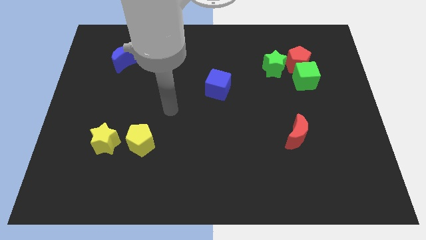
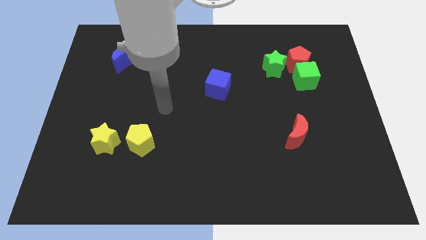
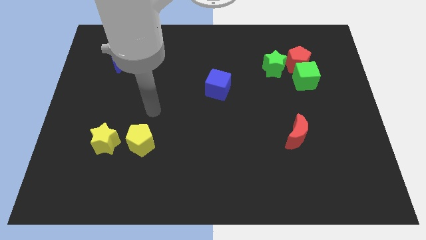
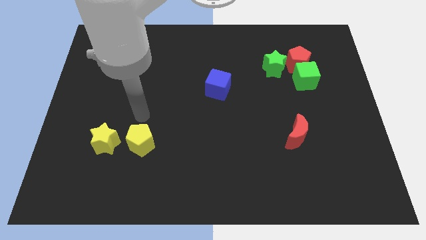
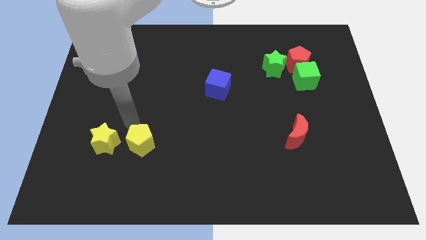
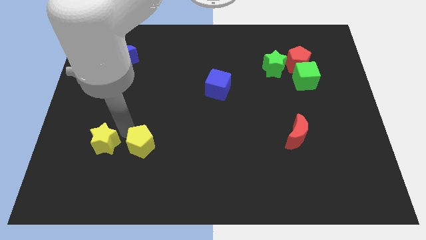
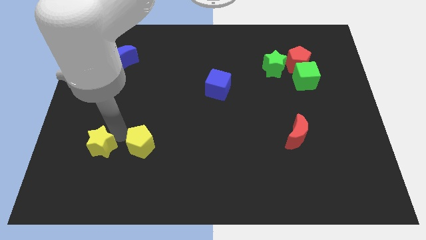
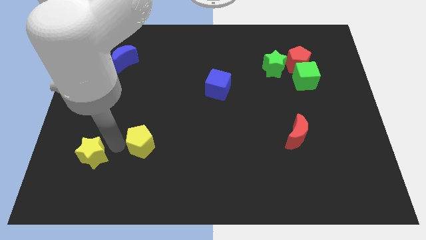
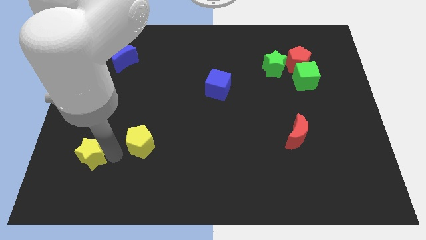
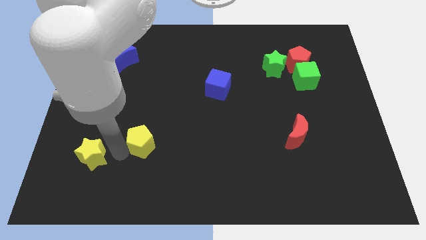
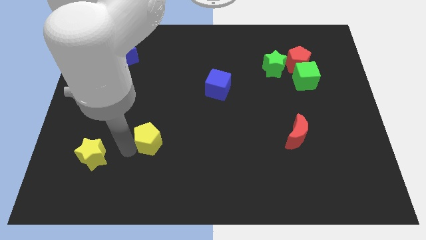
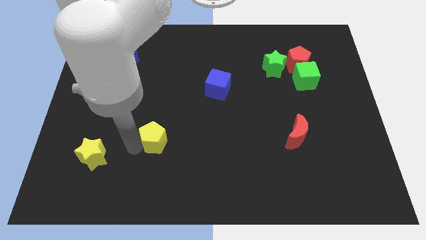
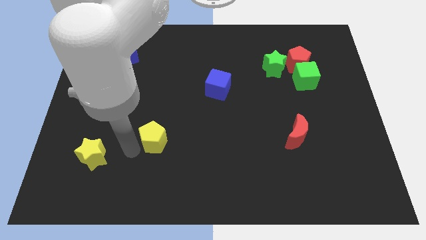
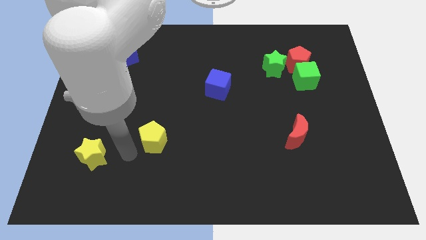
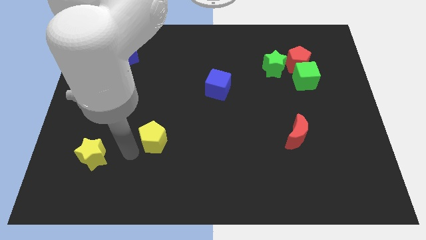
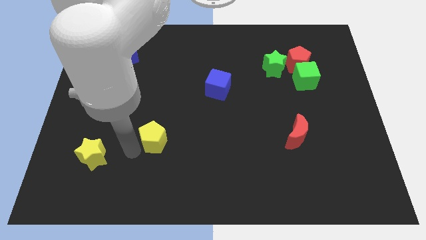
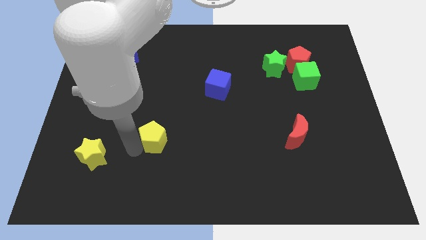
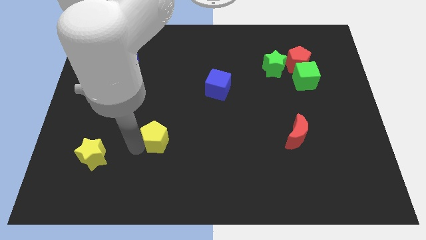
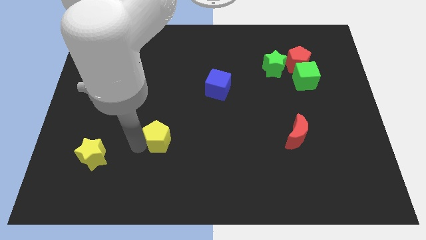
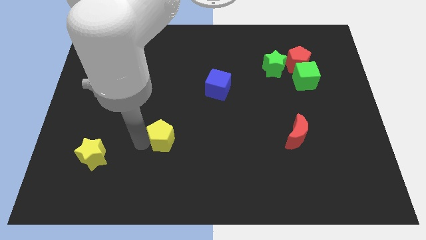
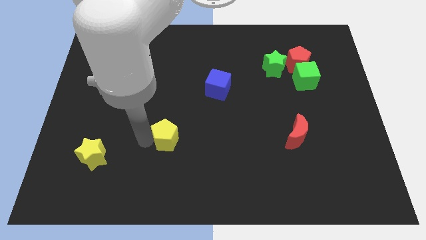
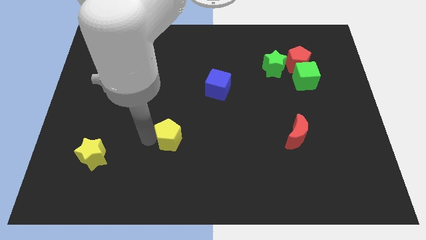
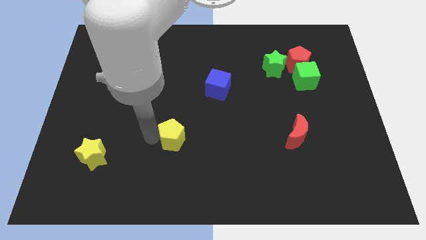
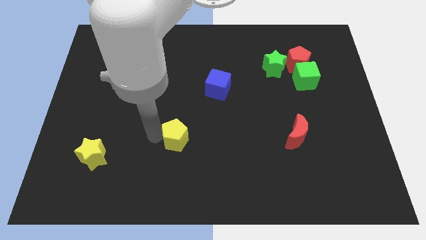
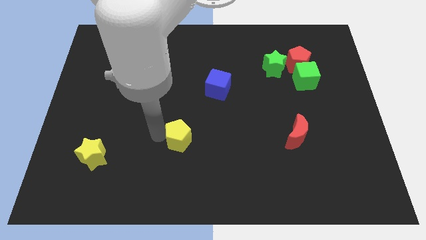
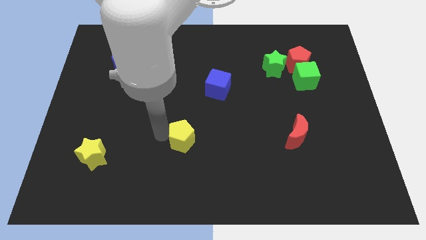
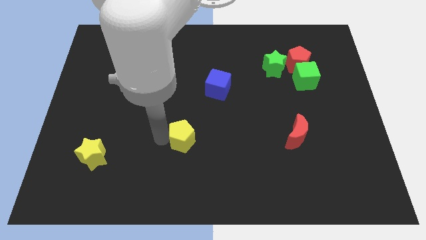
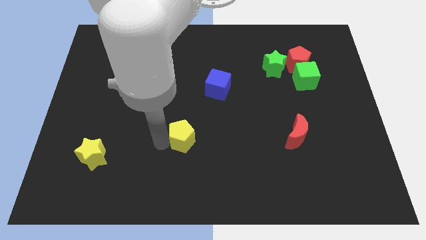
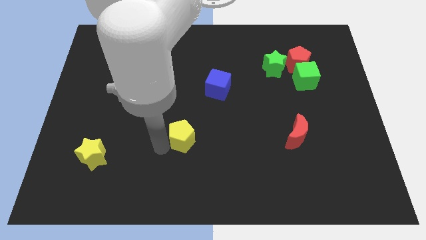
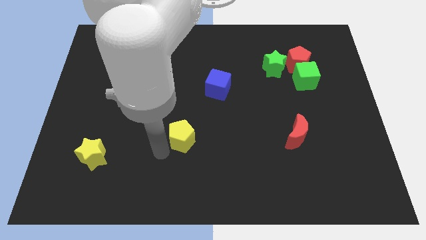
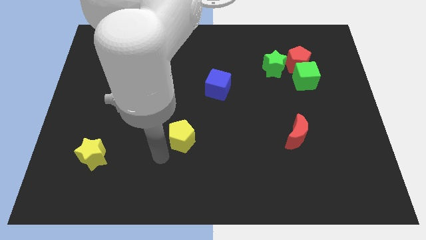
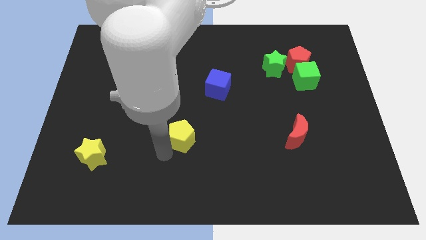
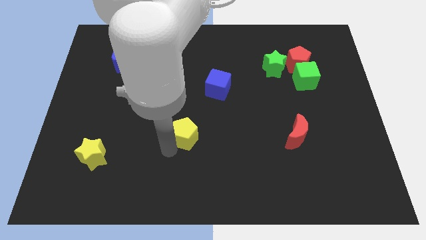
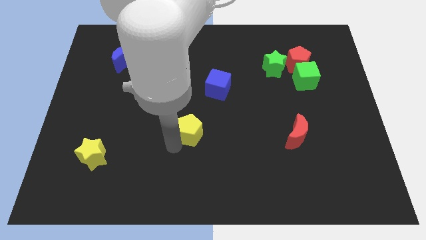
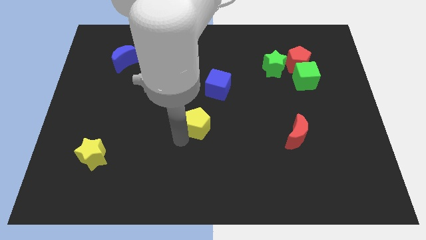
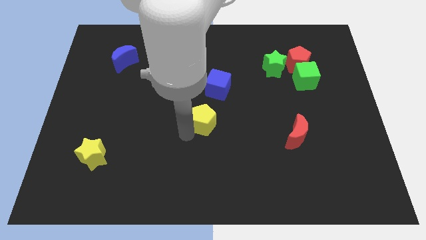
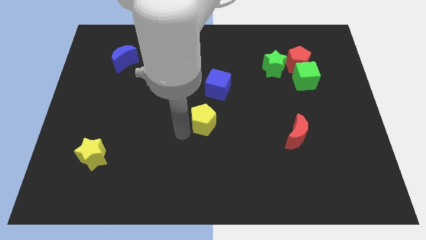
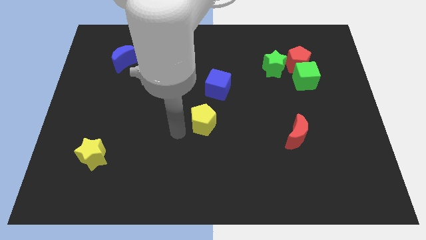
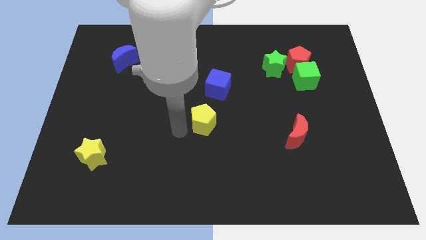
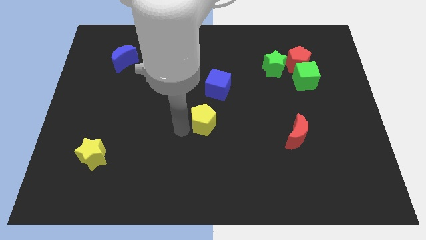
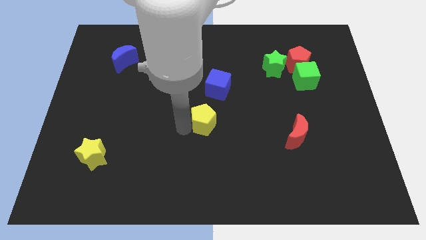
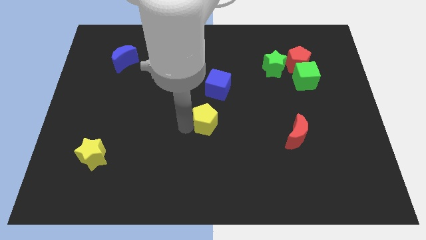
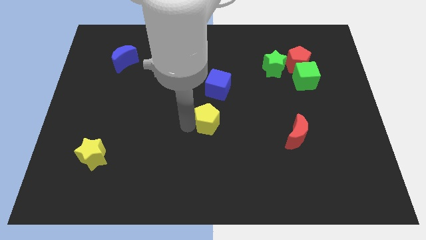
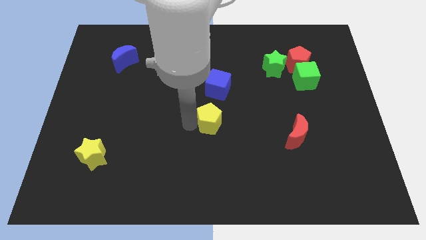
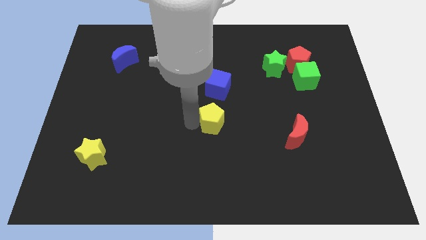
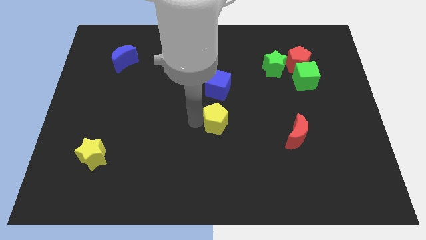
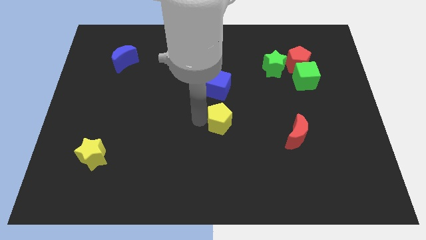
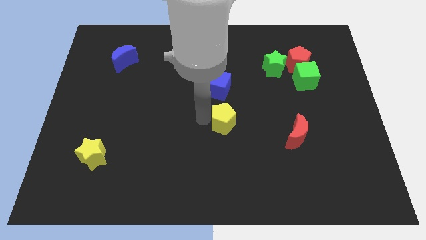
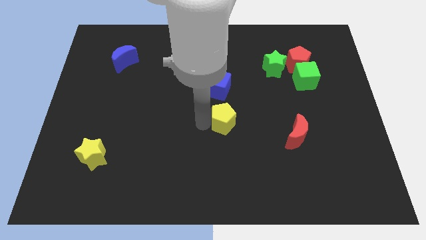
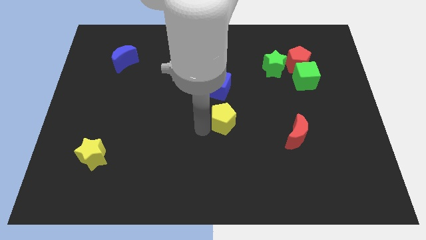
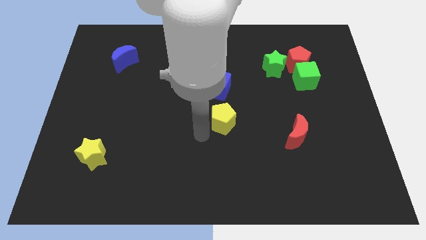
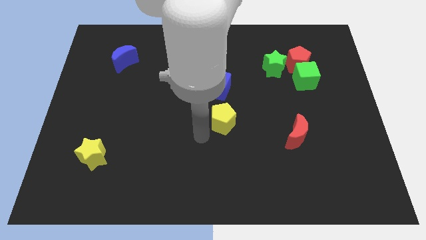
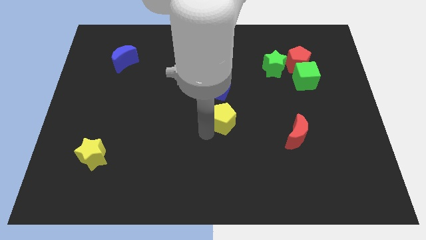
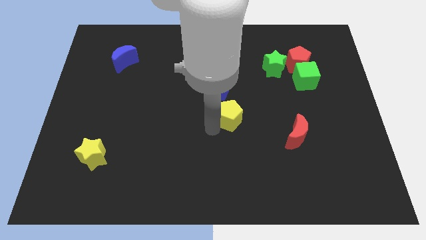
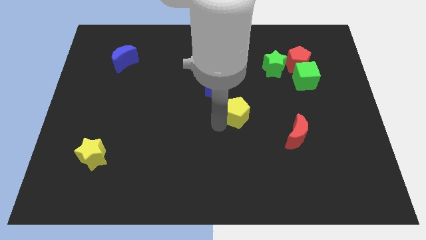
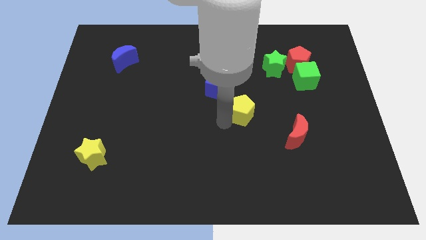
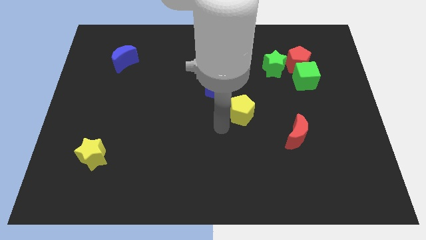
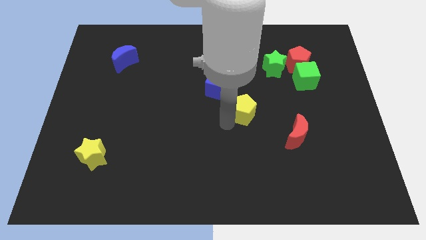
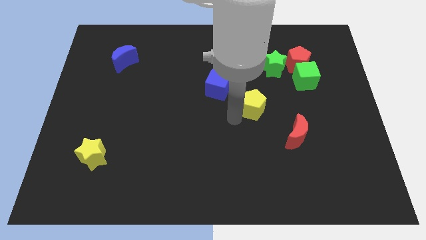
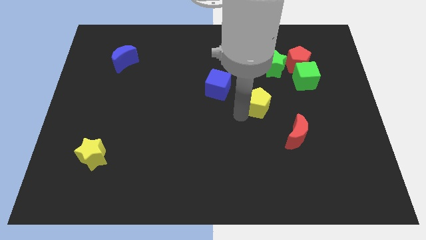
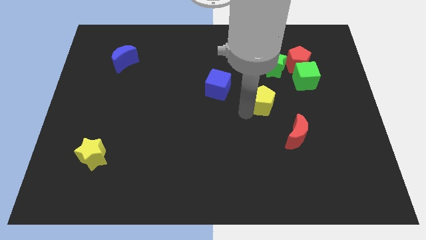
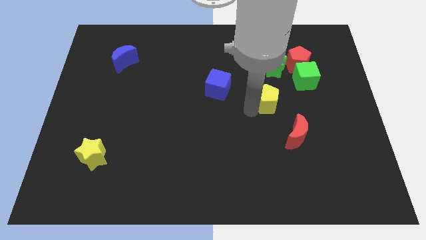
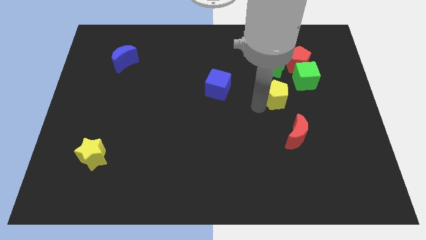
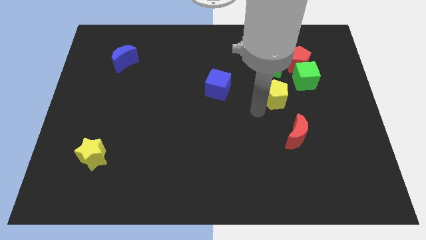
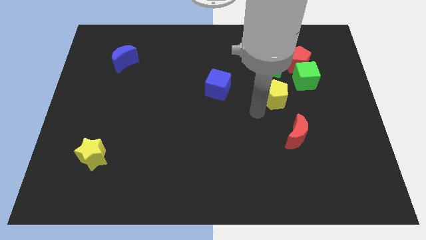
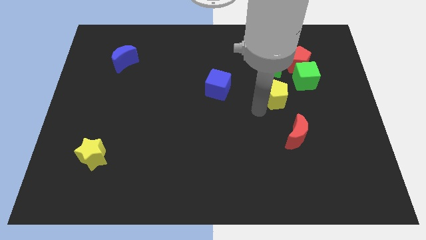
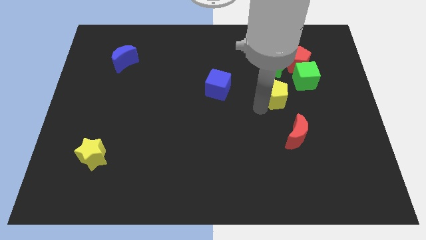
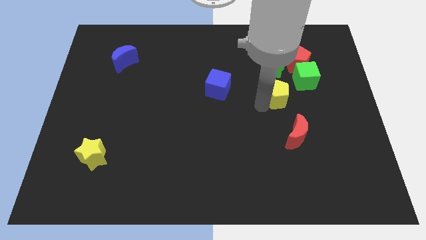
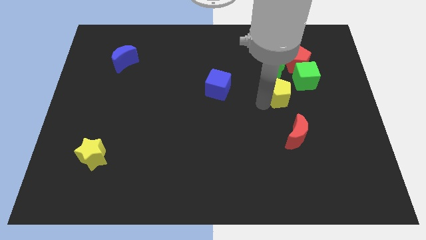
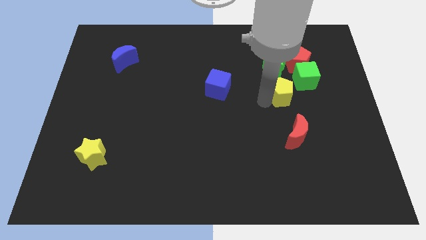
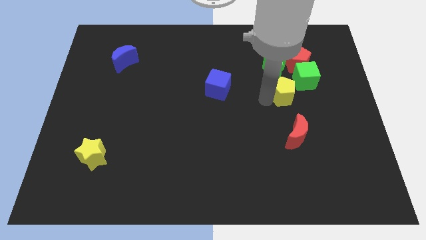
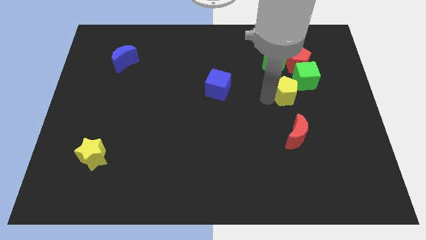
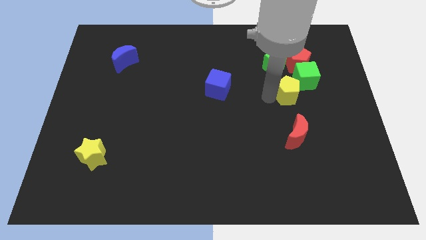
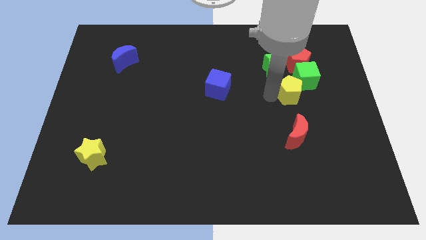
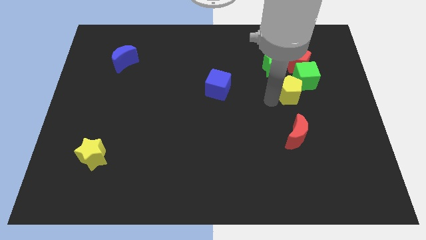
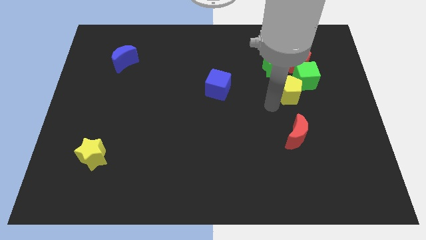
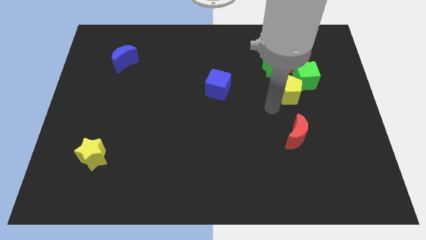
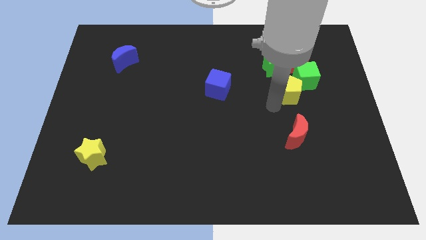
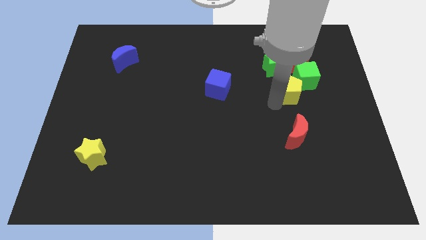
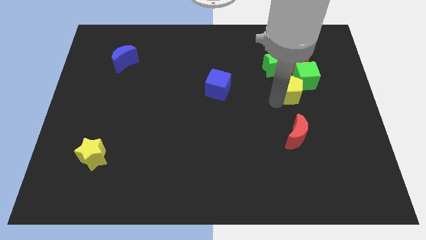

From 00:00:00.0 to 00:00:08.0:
push the yellow pentagon next to the green cube
